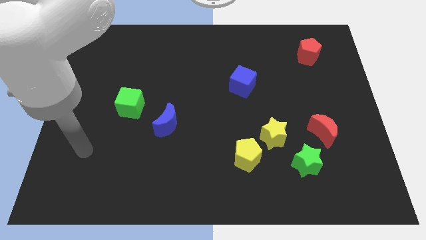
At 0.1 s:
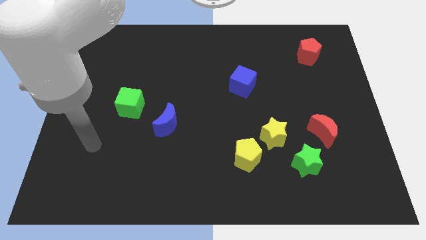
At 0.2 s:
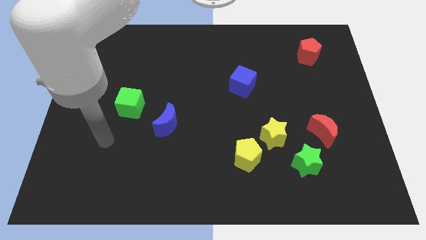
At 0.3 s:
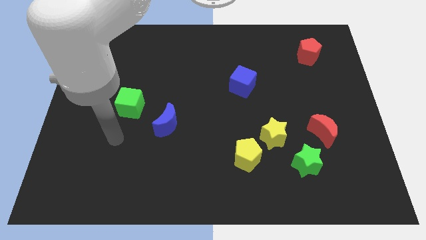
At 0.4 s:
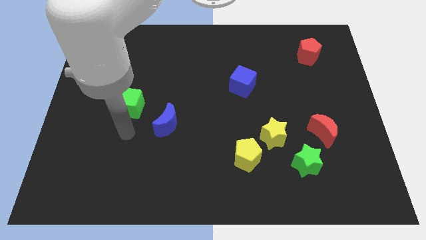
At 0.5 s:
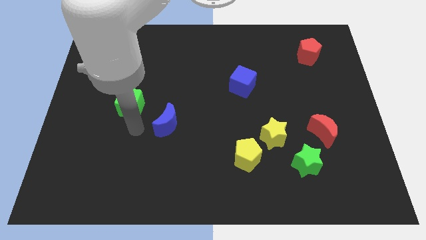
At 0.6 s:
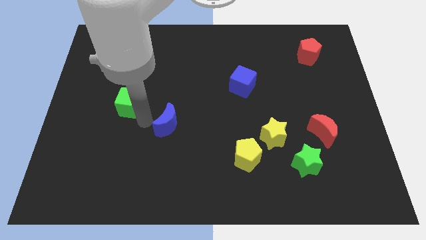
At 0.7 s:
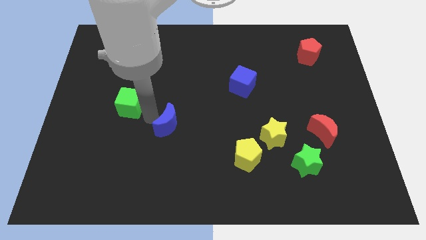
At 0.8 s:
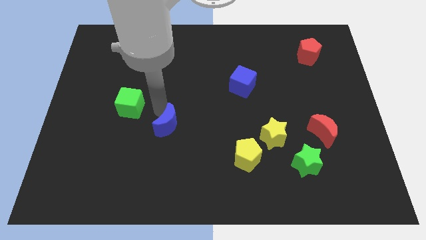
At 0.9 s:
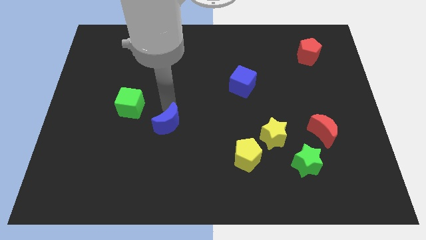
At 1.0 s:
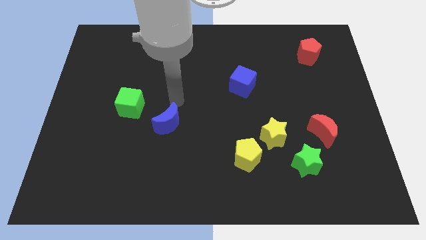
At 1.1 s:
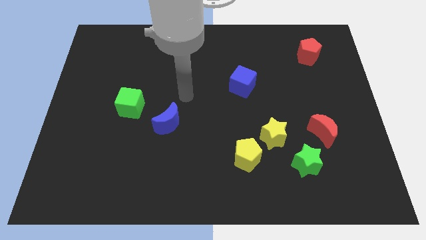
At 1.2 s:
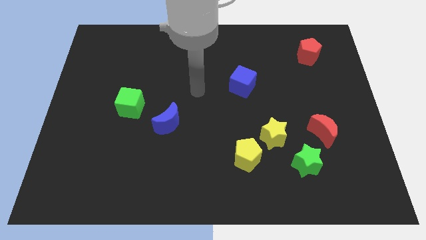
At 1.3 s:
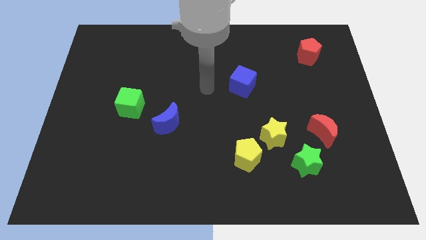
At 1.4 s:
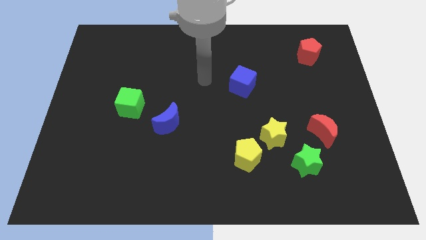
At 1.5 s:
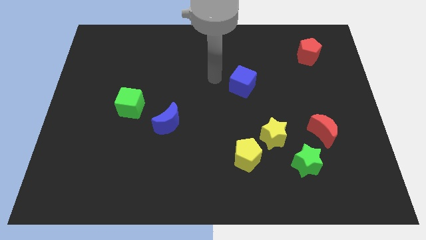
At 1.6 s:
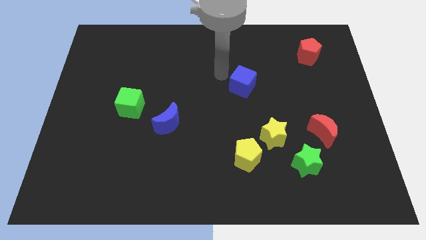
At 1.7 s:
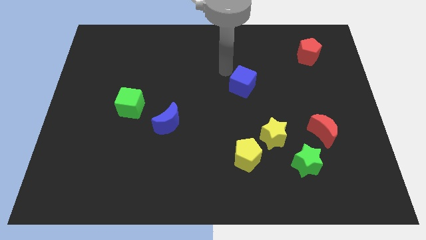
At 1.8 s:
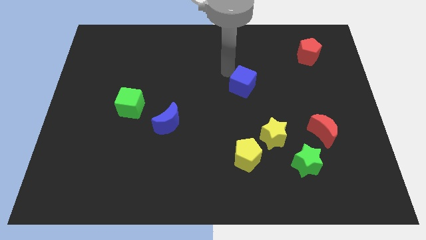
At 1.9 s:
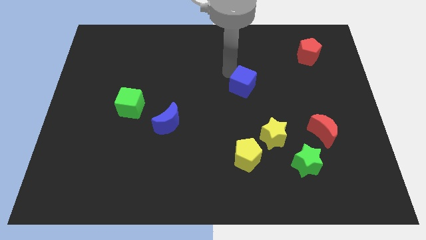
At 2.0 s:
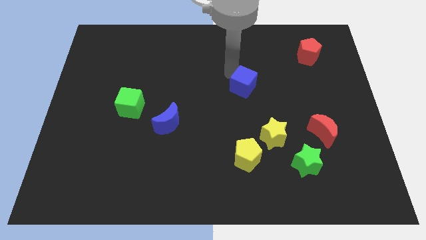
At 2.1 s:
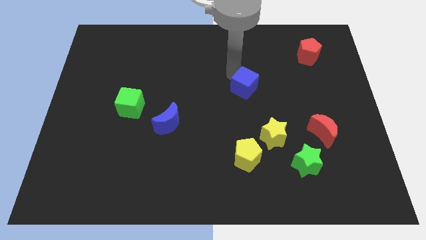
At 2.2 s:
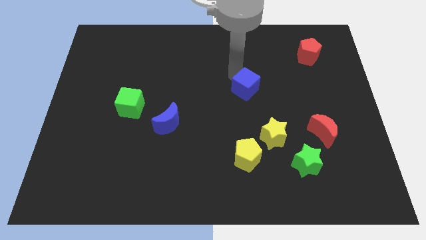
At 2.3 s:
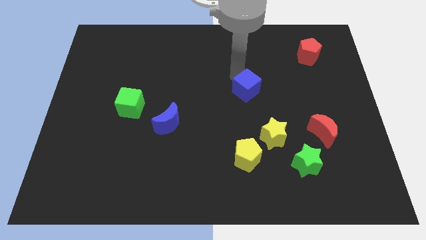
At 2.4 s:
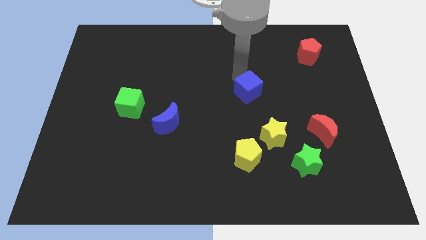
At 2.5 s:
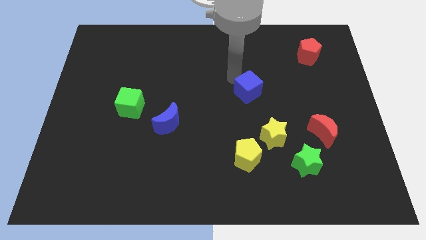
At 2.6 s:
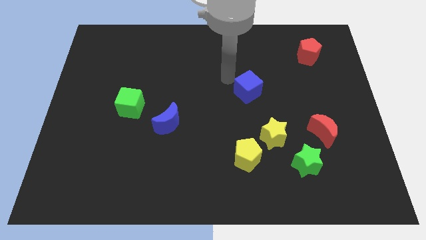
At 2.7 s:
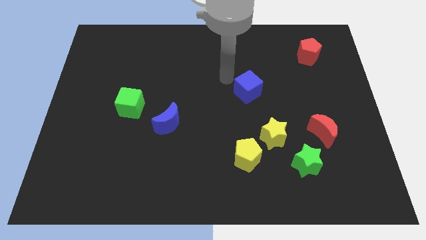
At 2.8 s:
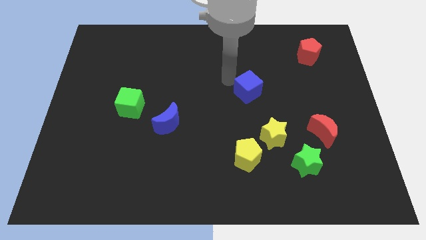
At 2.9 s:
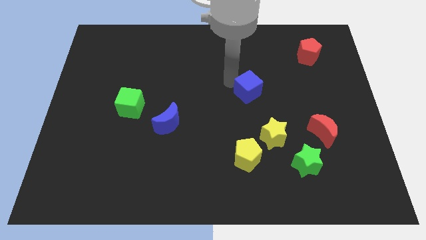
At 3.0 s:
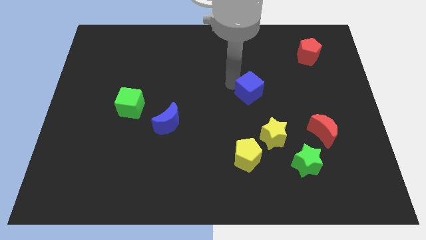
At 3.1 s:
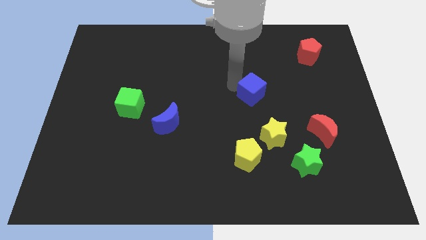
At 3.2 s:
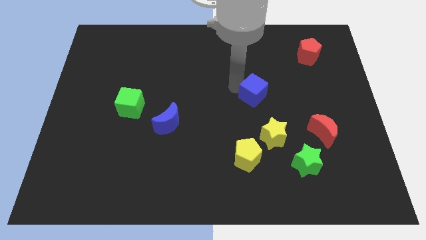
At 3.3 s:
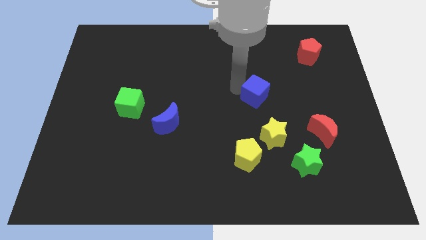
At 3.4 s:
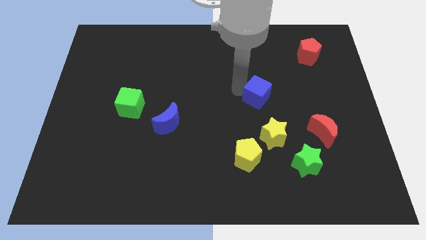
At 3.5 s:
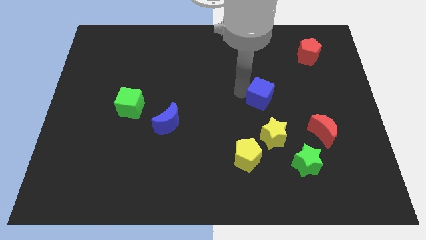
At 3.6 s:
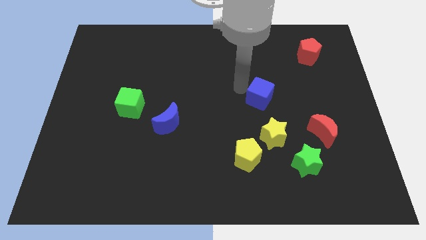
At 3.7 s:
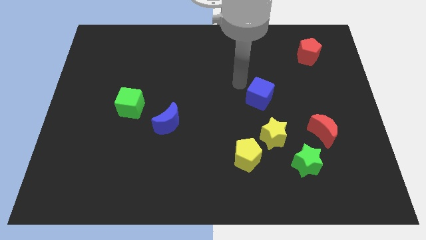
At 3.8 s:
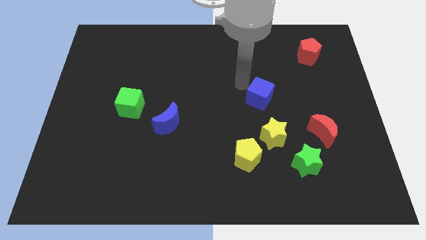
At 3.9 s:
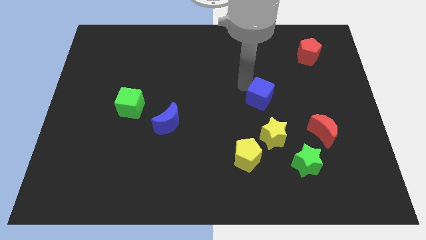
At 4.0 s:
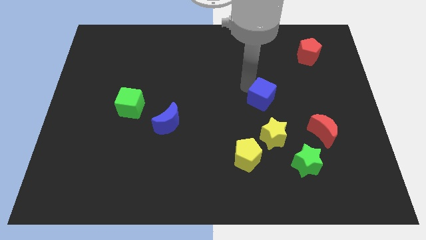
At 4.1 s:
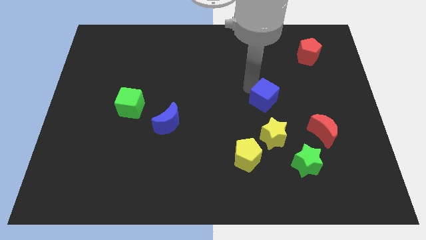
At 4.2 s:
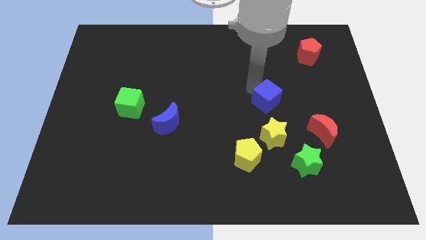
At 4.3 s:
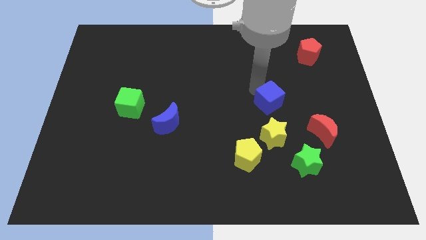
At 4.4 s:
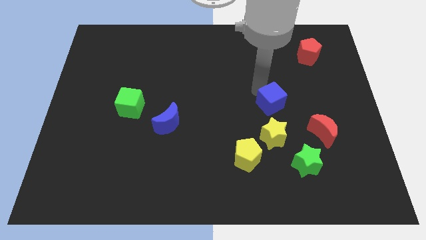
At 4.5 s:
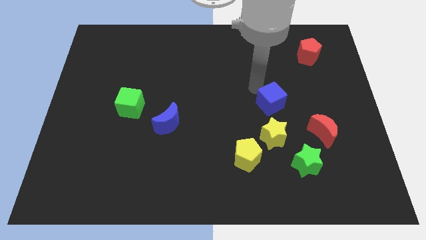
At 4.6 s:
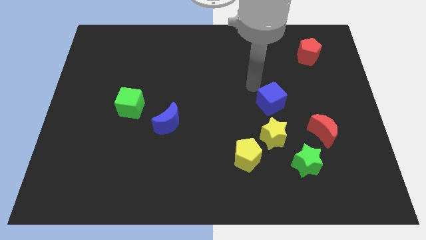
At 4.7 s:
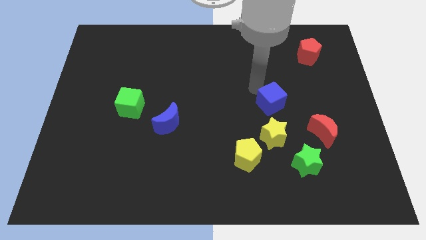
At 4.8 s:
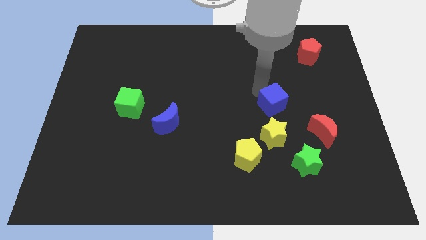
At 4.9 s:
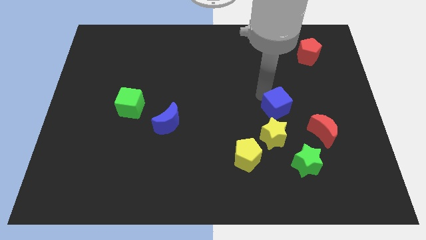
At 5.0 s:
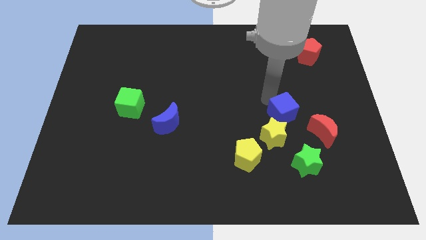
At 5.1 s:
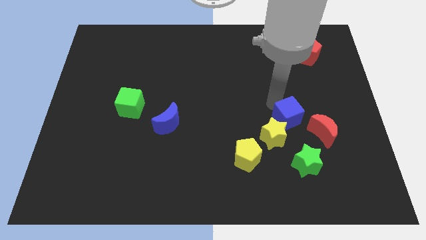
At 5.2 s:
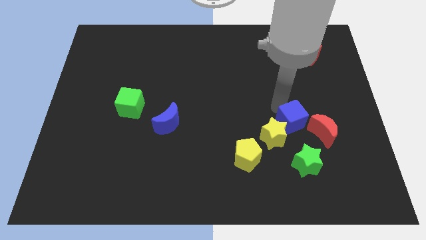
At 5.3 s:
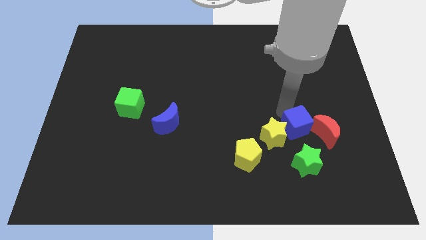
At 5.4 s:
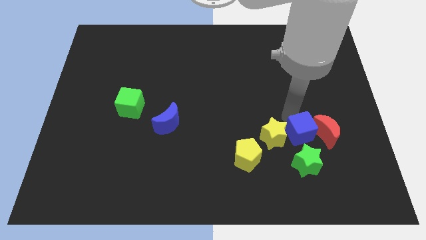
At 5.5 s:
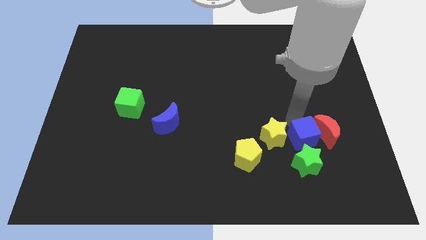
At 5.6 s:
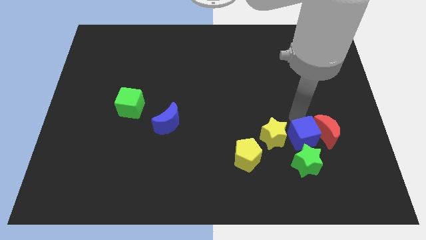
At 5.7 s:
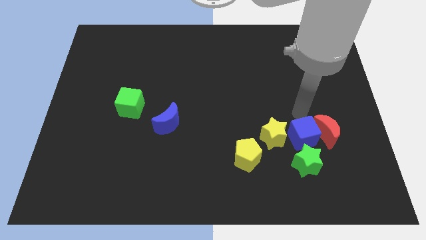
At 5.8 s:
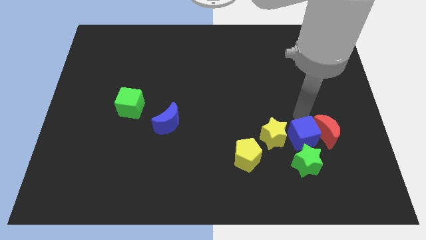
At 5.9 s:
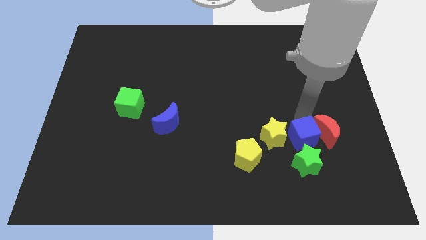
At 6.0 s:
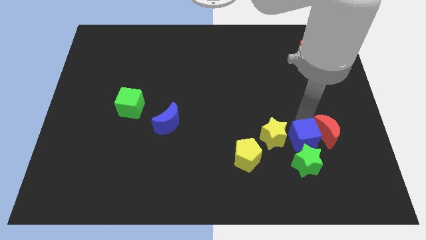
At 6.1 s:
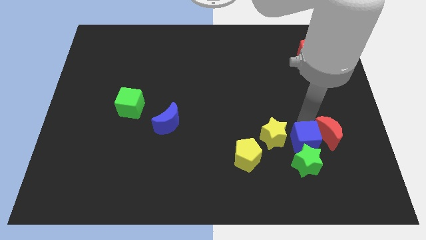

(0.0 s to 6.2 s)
push the blue cube next to the green star

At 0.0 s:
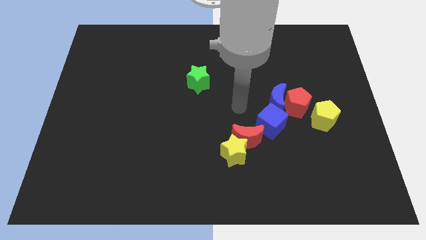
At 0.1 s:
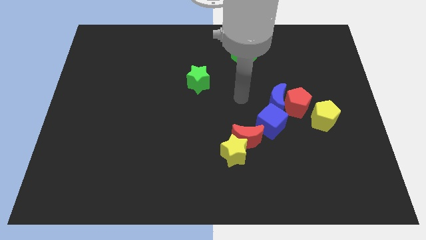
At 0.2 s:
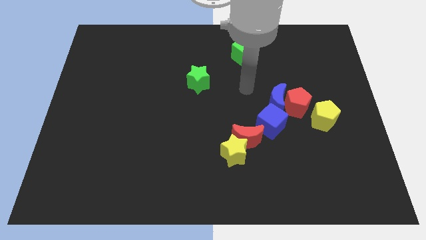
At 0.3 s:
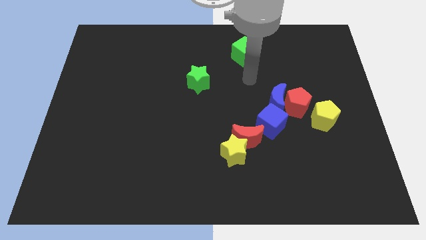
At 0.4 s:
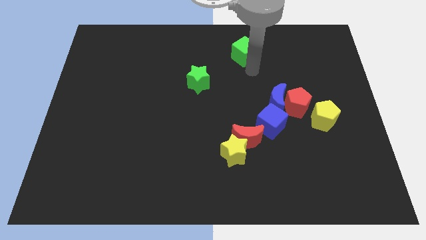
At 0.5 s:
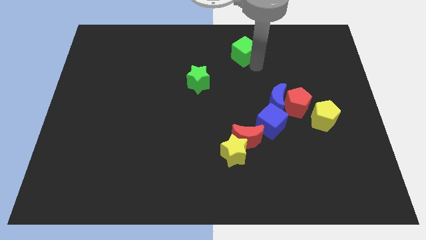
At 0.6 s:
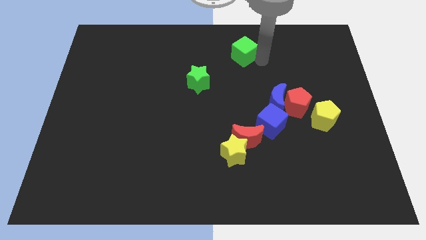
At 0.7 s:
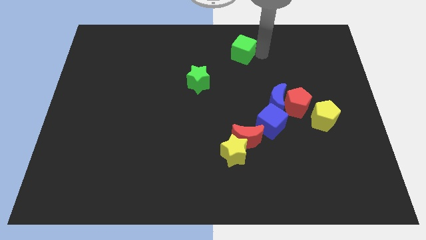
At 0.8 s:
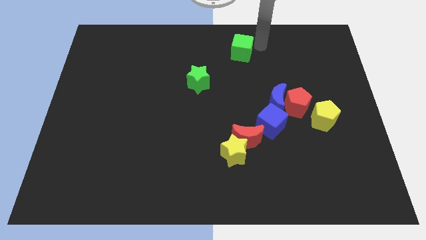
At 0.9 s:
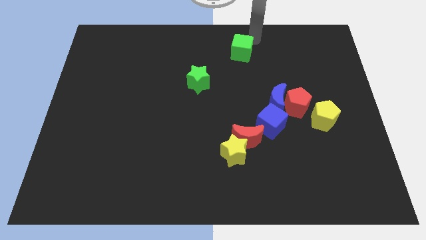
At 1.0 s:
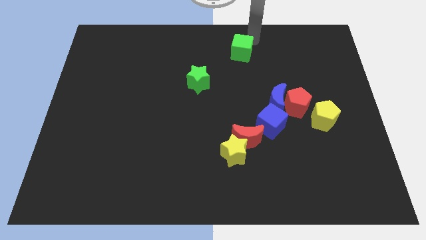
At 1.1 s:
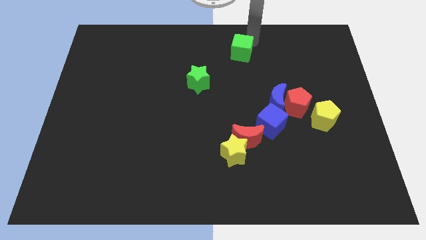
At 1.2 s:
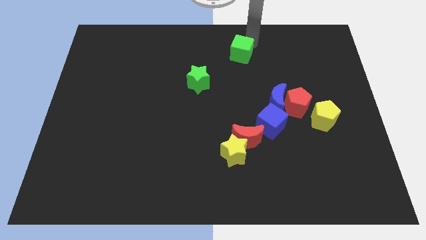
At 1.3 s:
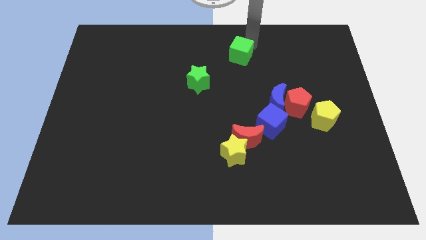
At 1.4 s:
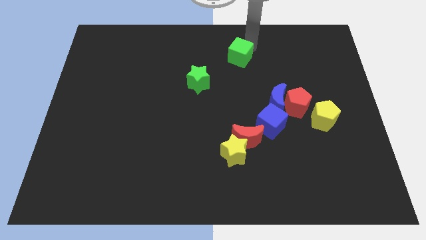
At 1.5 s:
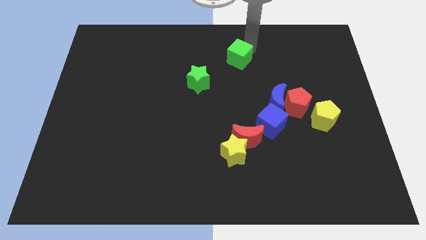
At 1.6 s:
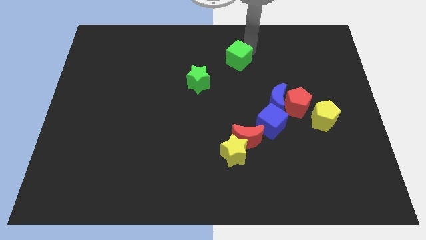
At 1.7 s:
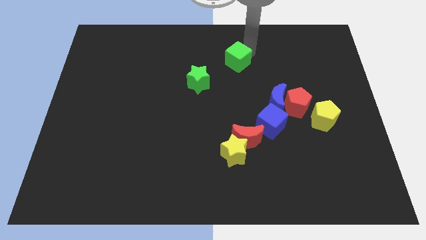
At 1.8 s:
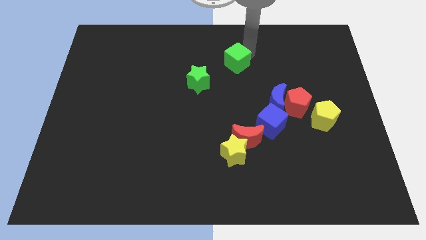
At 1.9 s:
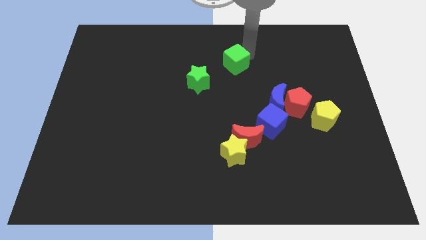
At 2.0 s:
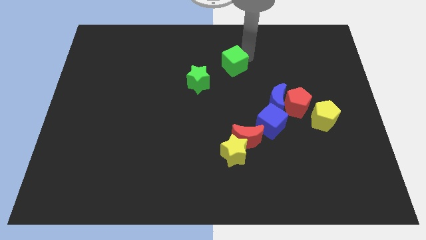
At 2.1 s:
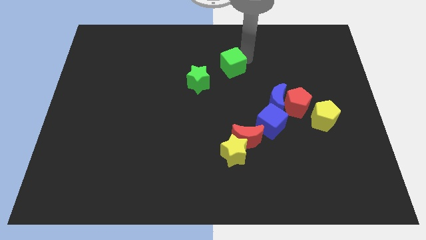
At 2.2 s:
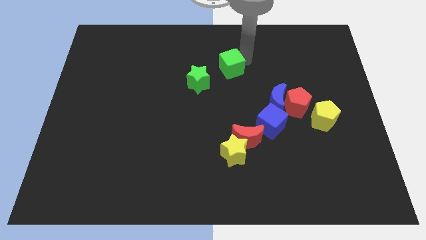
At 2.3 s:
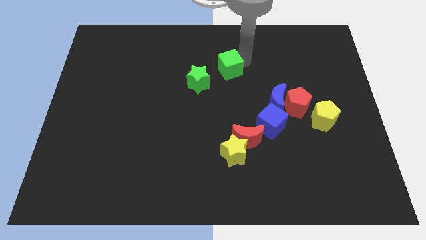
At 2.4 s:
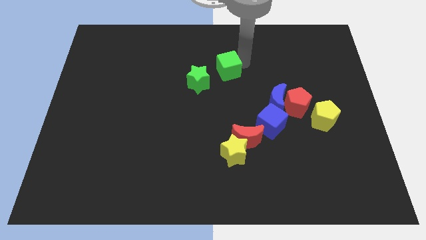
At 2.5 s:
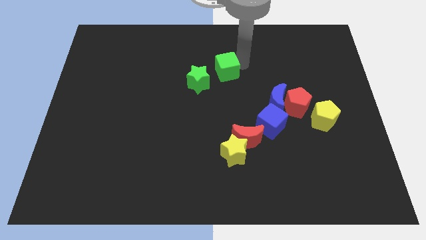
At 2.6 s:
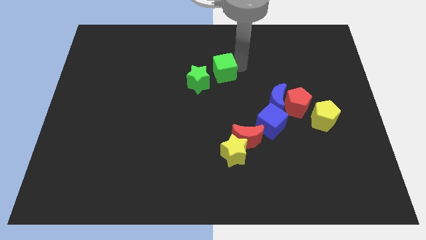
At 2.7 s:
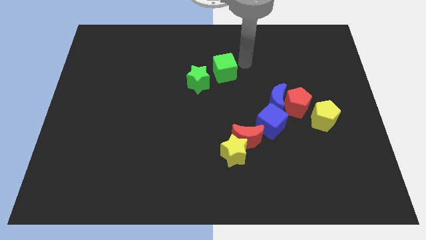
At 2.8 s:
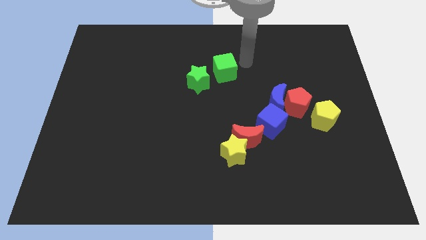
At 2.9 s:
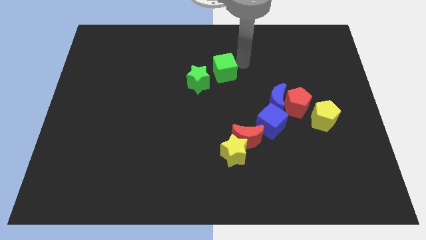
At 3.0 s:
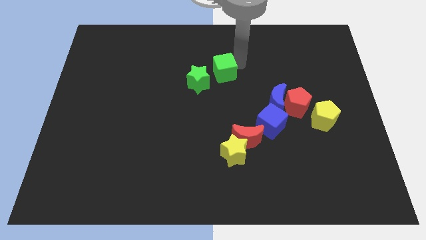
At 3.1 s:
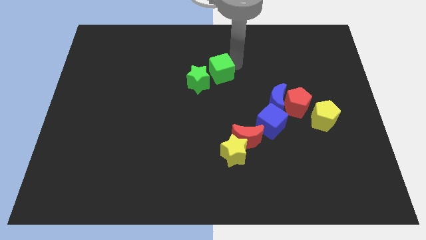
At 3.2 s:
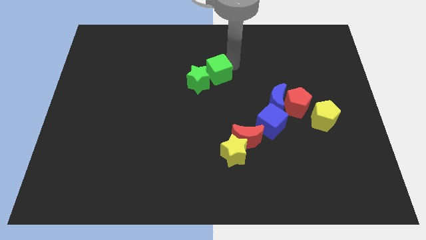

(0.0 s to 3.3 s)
push the green cube next to the green star
